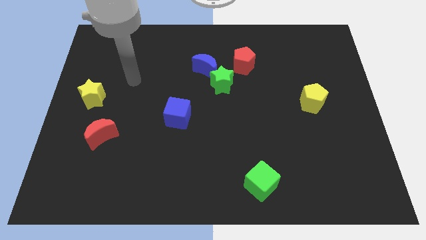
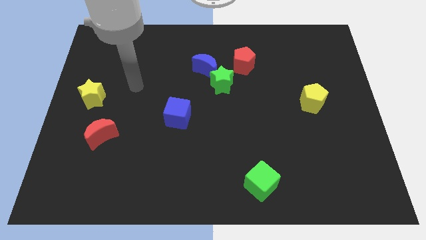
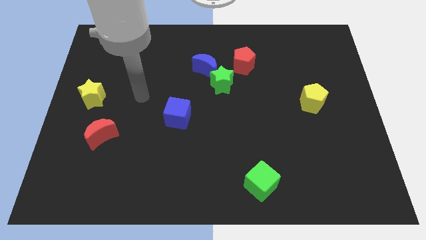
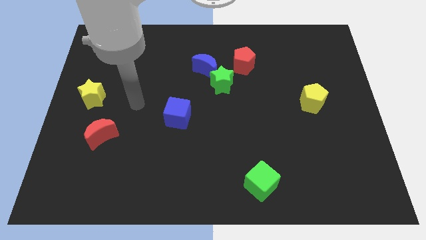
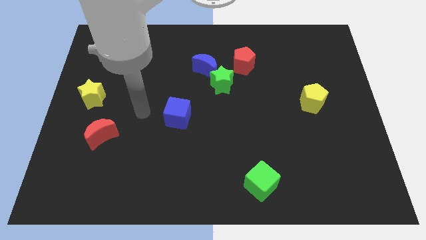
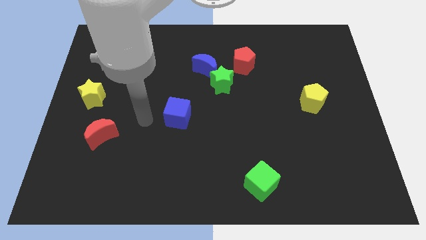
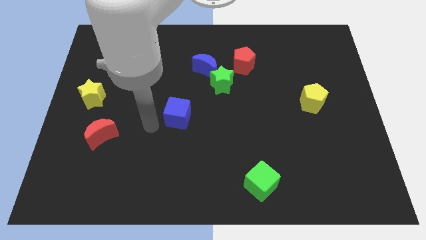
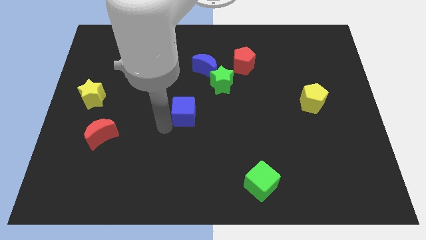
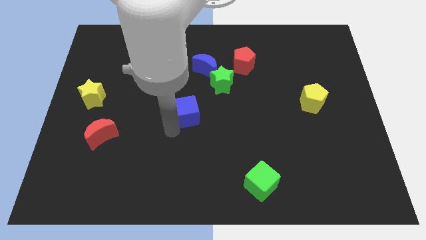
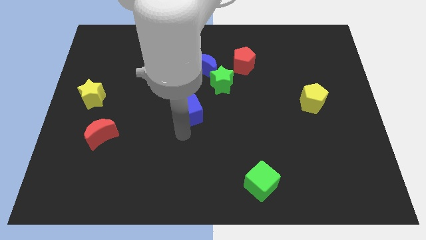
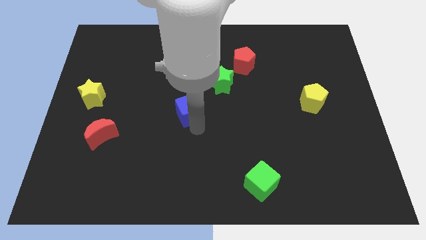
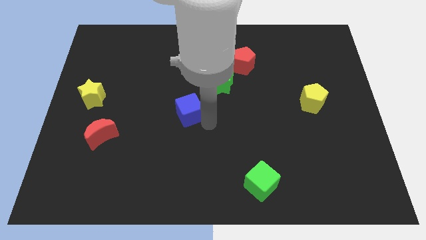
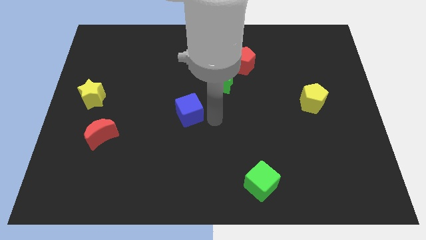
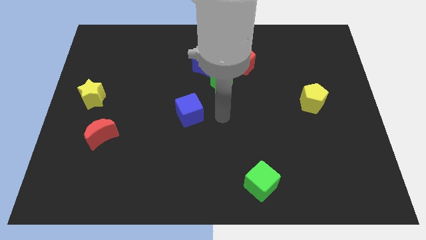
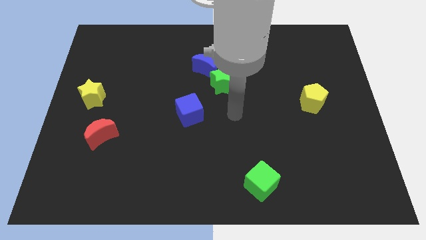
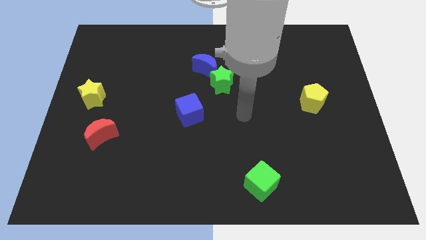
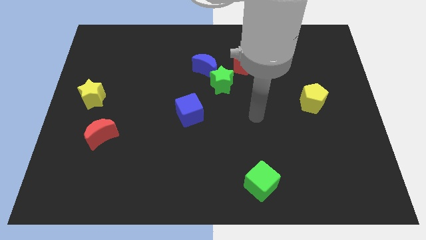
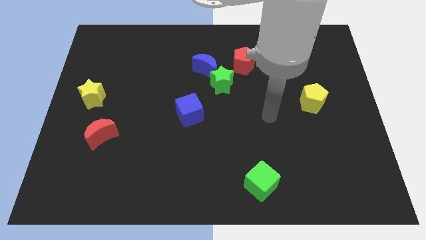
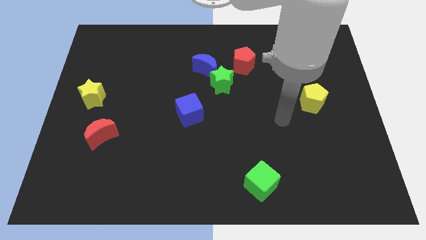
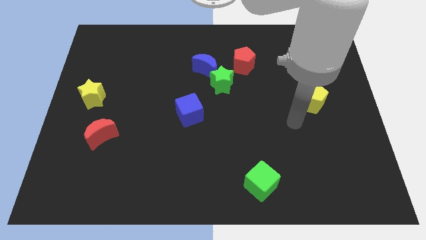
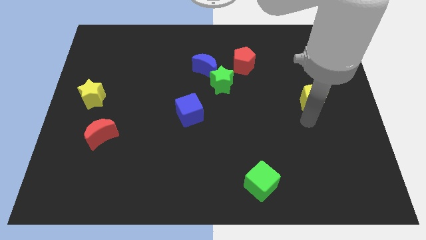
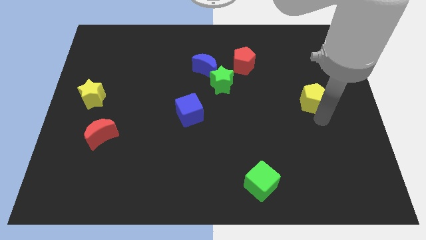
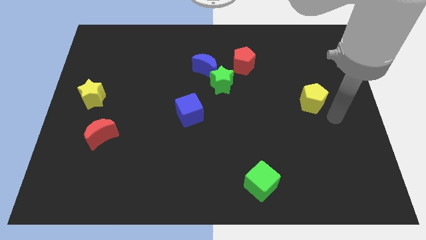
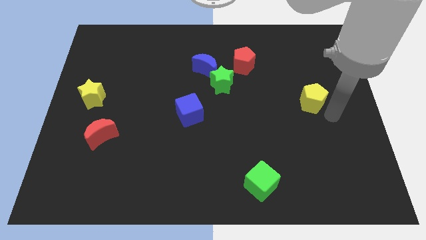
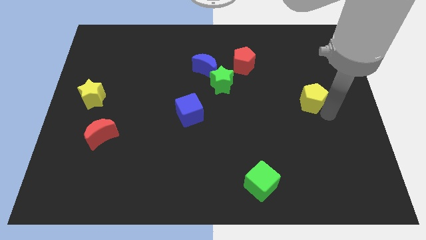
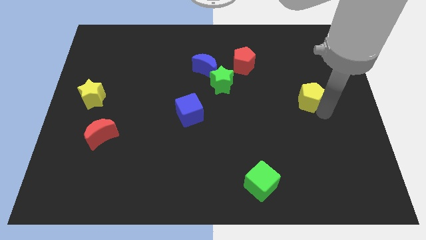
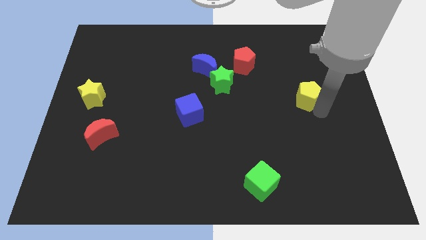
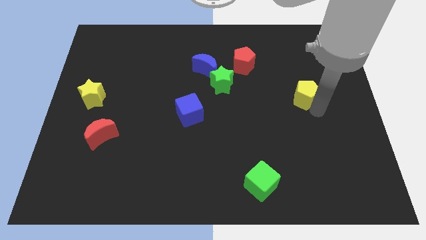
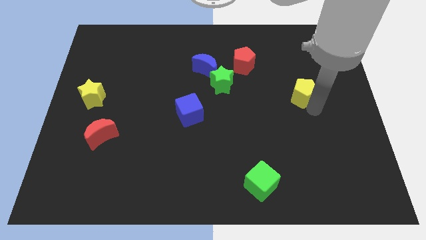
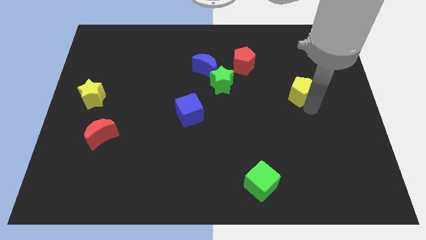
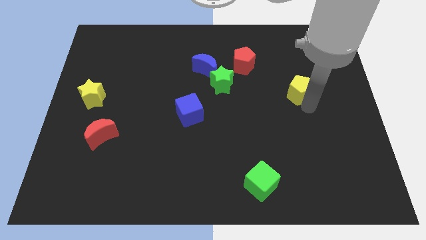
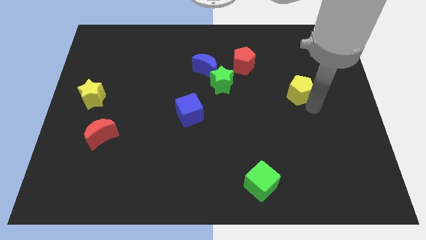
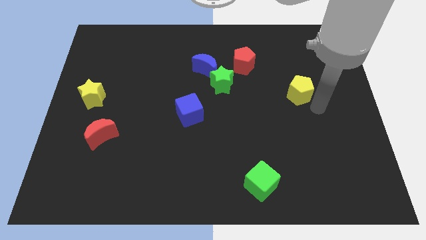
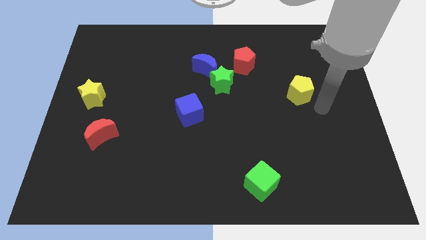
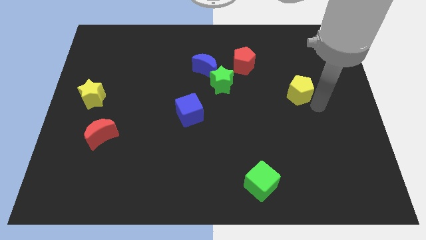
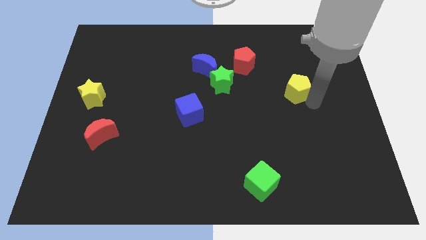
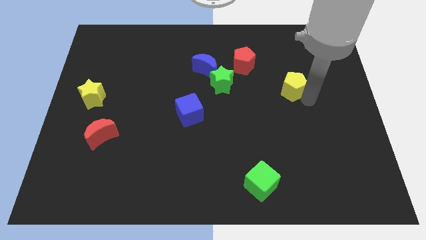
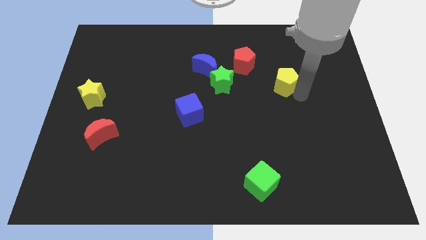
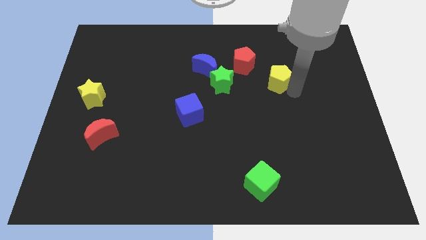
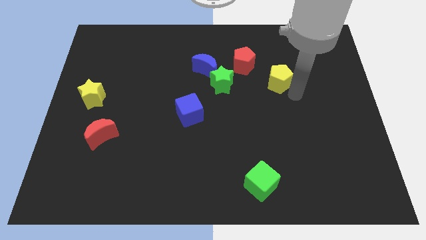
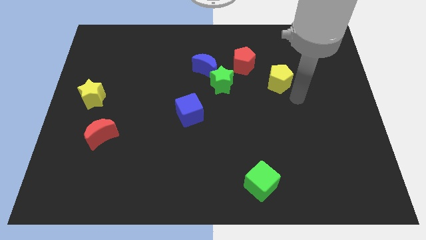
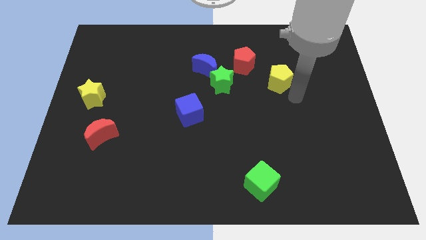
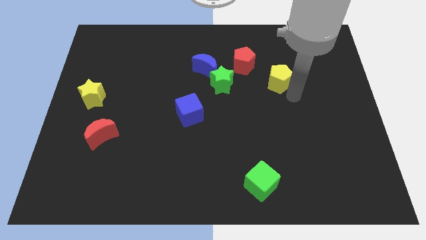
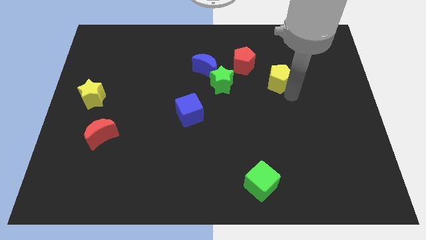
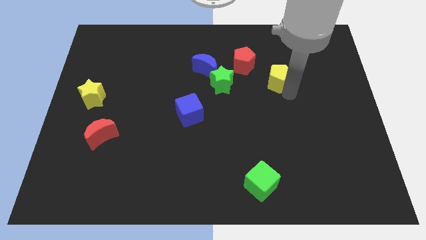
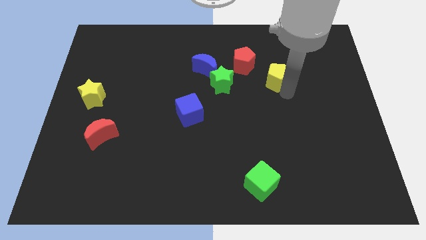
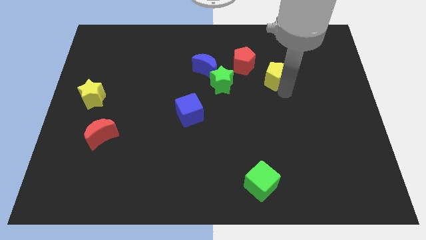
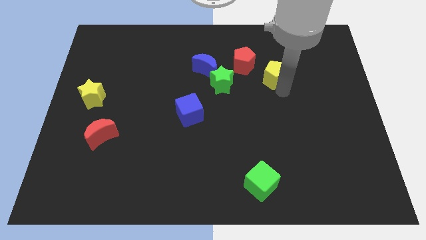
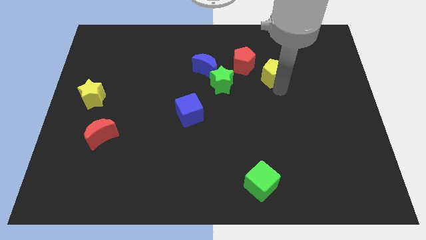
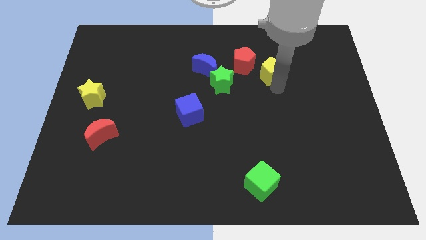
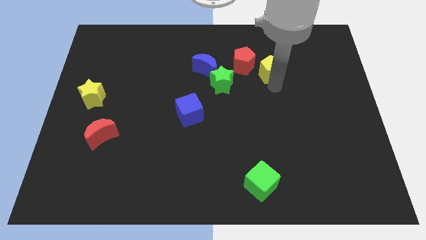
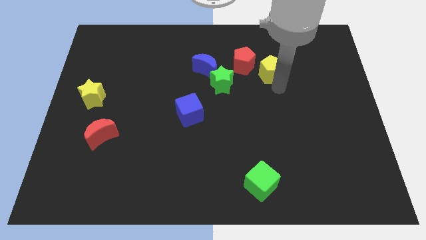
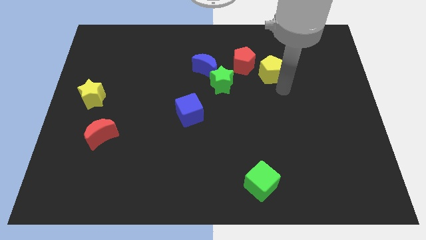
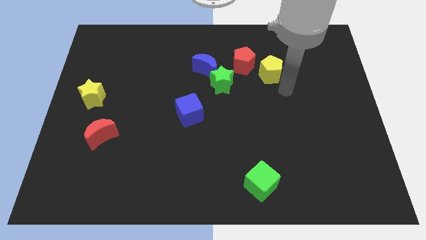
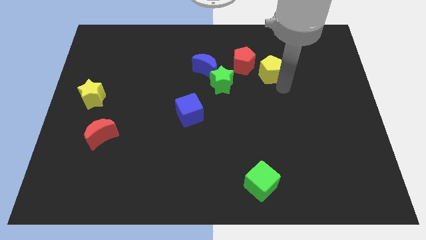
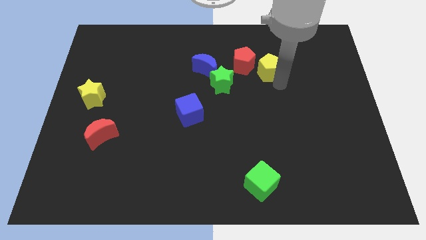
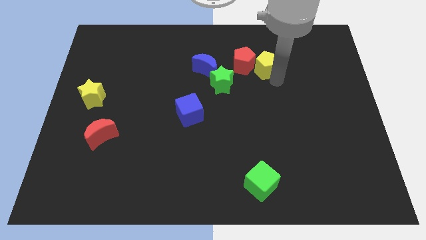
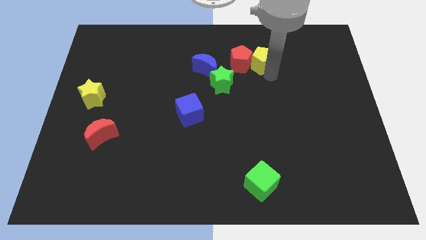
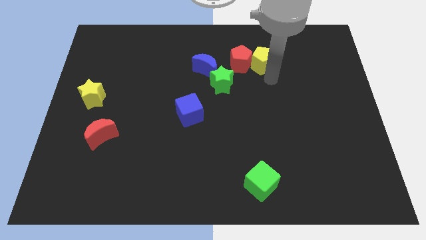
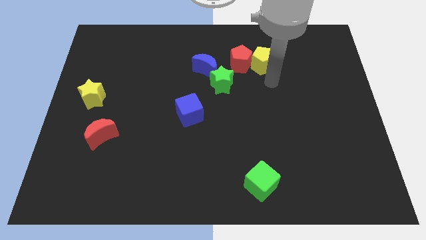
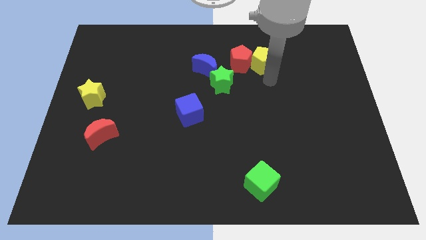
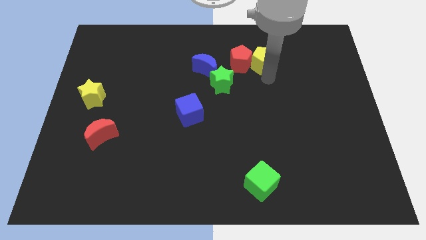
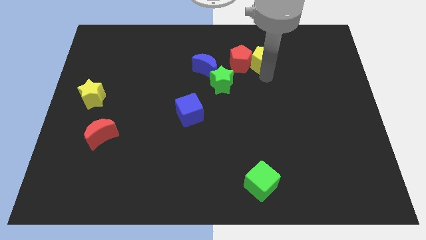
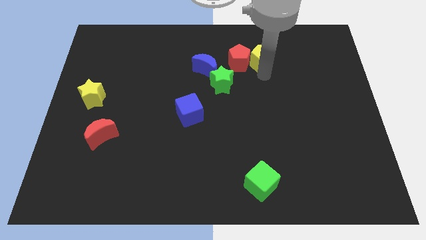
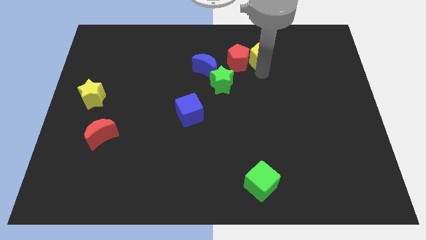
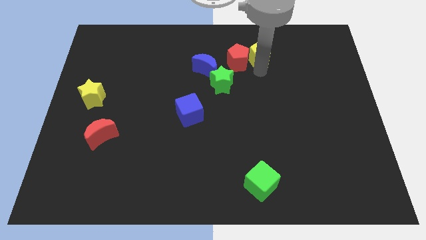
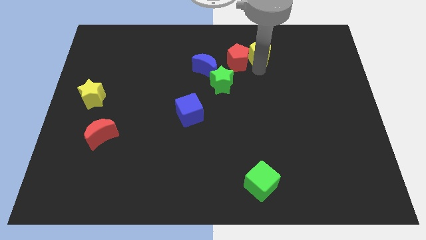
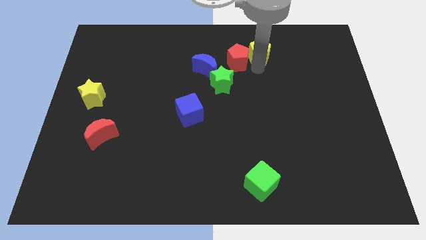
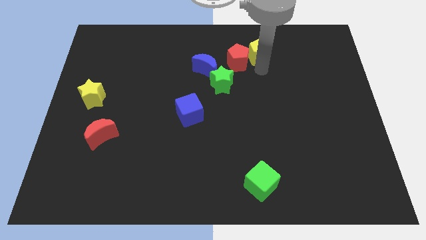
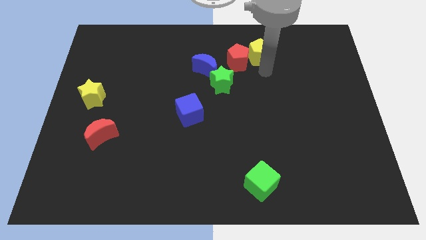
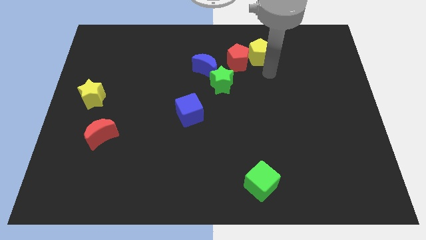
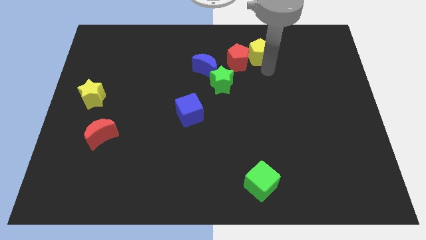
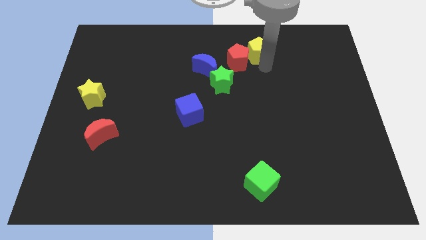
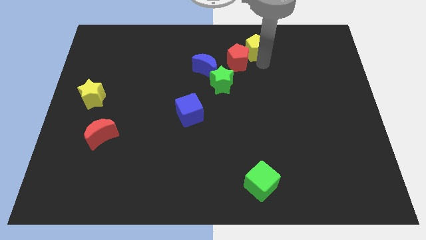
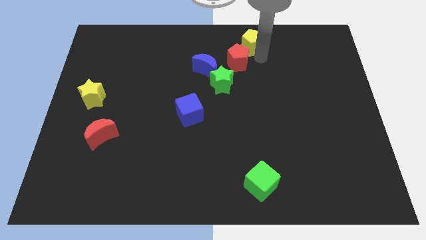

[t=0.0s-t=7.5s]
slide the yellow pentagon to the towards your base
